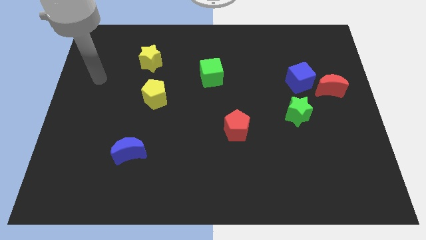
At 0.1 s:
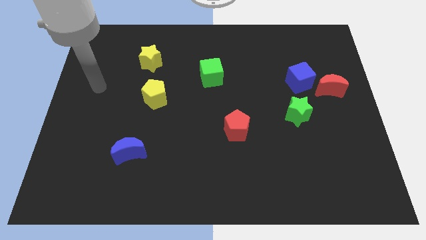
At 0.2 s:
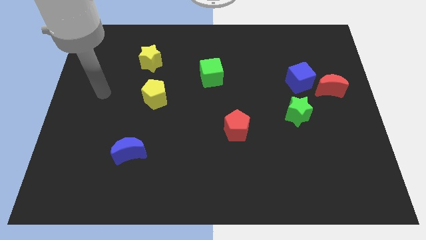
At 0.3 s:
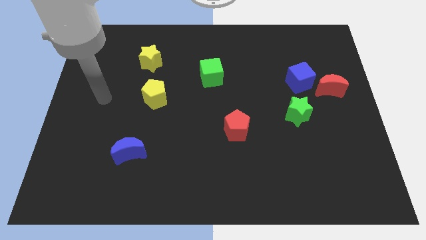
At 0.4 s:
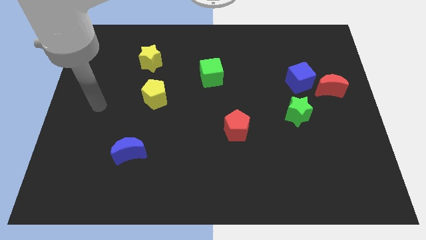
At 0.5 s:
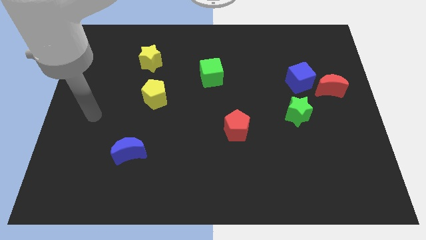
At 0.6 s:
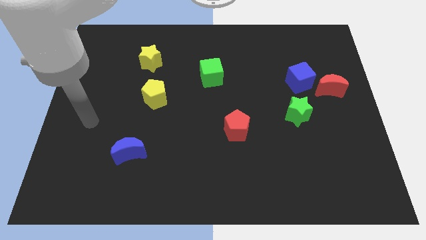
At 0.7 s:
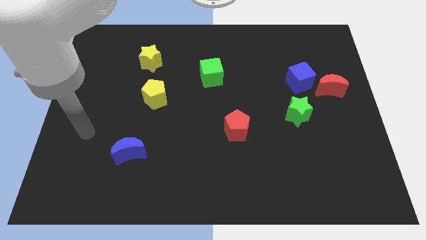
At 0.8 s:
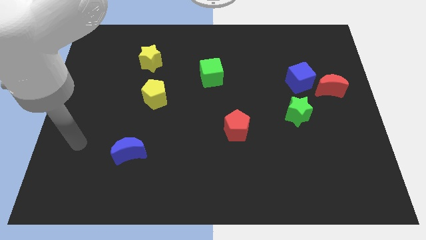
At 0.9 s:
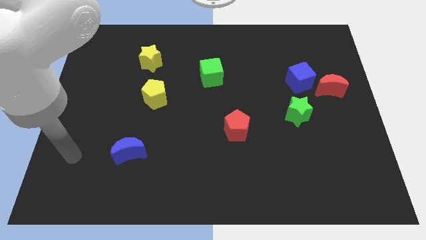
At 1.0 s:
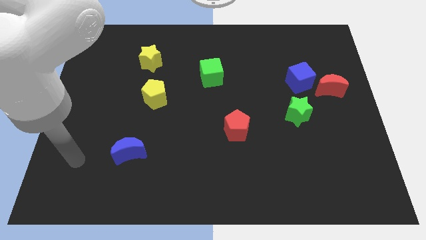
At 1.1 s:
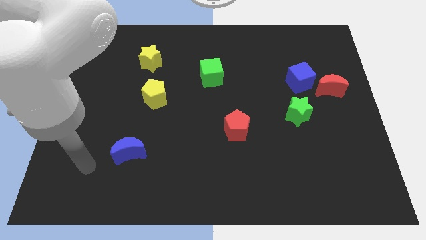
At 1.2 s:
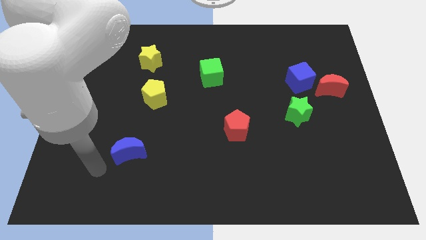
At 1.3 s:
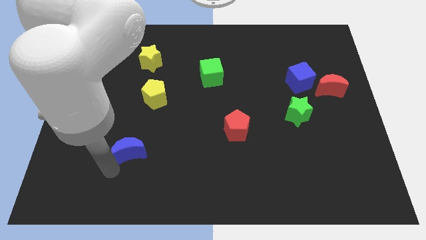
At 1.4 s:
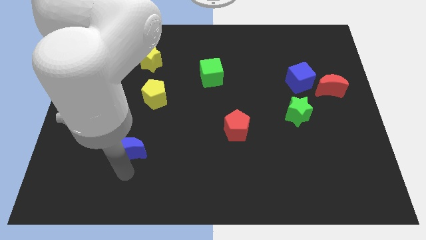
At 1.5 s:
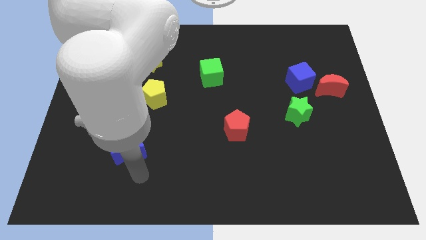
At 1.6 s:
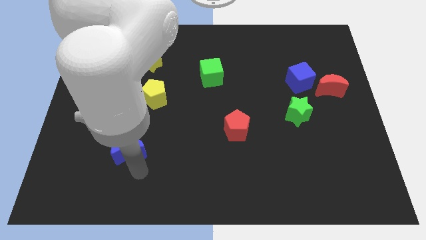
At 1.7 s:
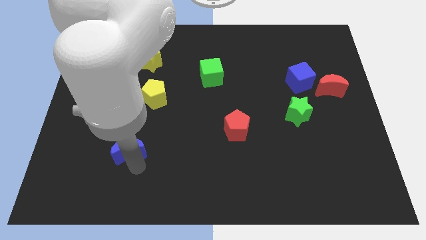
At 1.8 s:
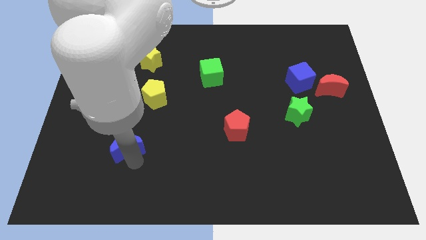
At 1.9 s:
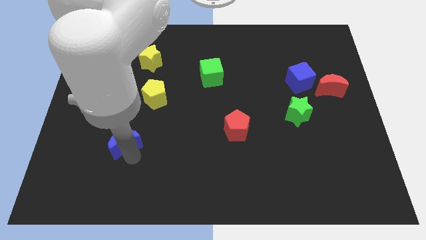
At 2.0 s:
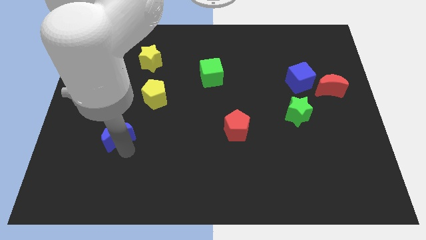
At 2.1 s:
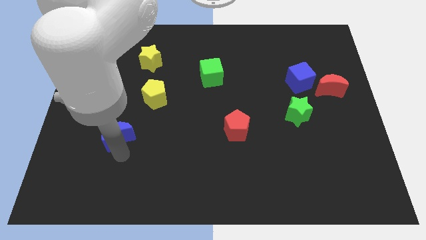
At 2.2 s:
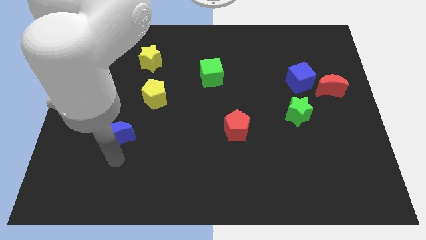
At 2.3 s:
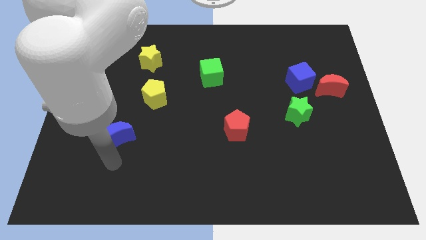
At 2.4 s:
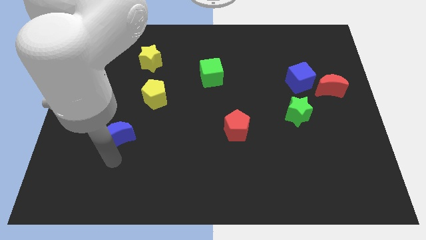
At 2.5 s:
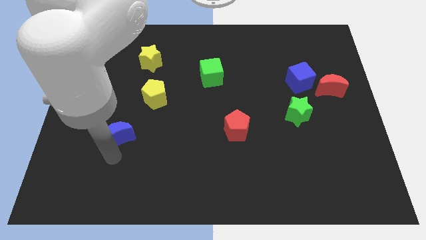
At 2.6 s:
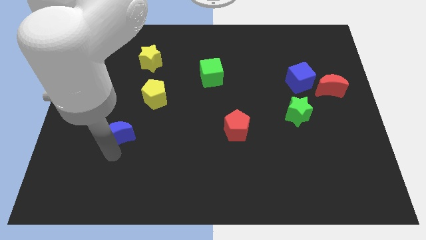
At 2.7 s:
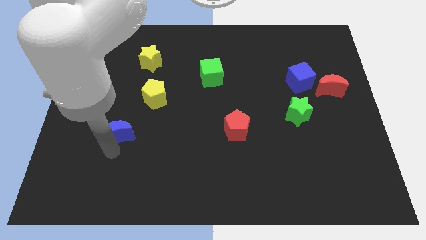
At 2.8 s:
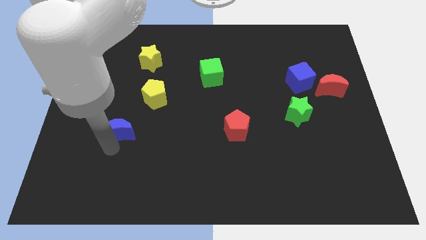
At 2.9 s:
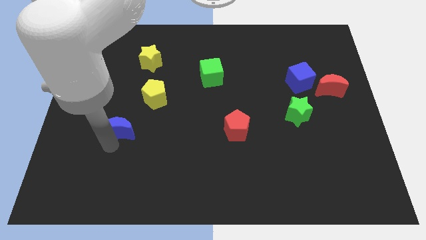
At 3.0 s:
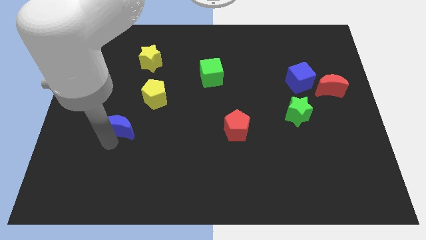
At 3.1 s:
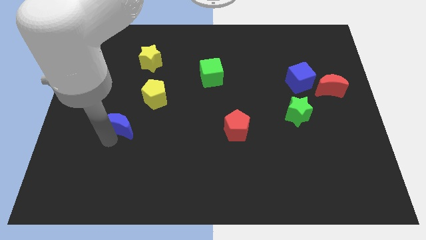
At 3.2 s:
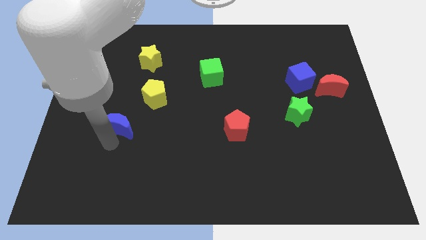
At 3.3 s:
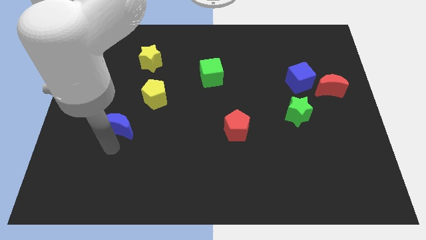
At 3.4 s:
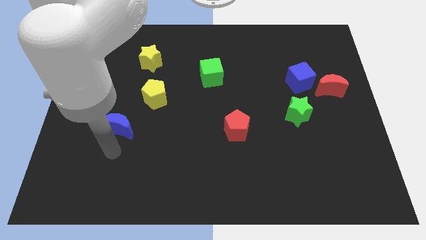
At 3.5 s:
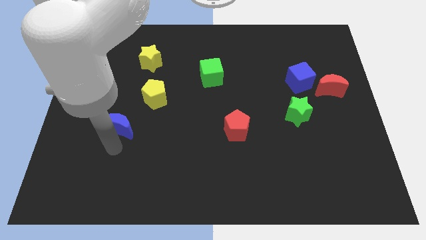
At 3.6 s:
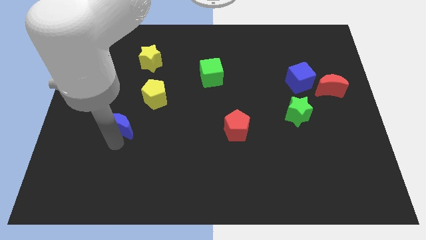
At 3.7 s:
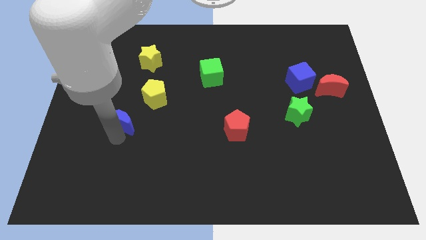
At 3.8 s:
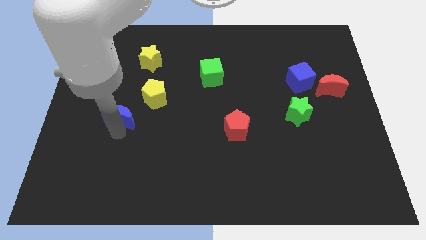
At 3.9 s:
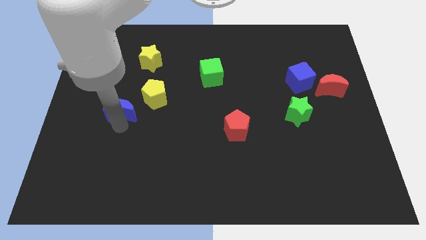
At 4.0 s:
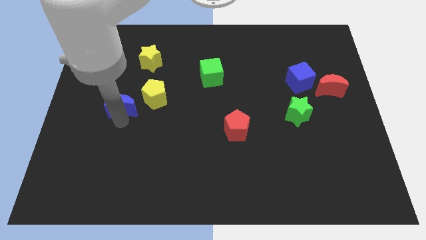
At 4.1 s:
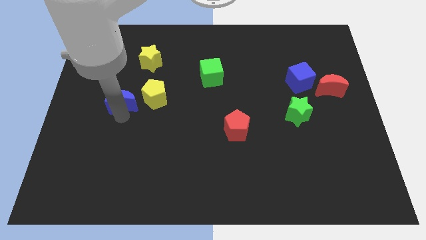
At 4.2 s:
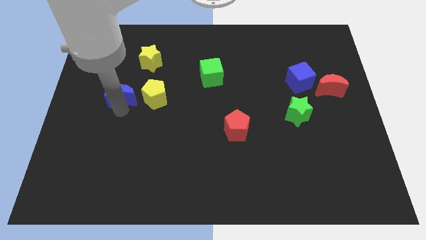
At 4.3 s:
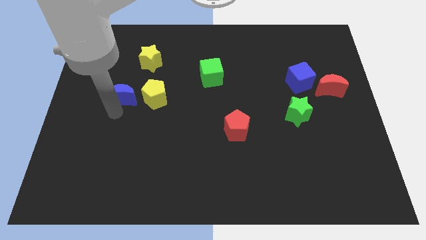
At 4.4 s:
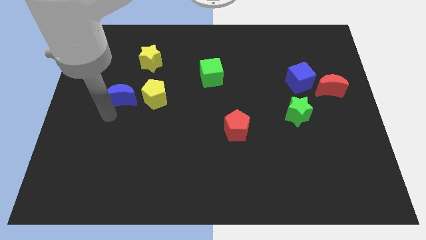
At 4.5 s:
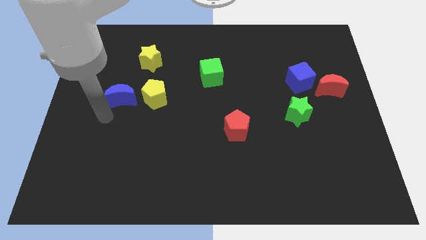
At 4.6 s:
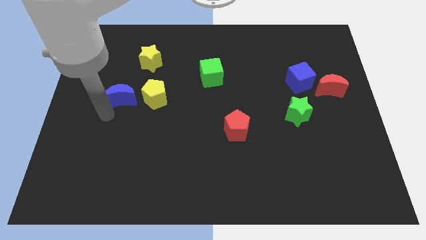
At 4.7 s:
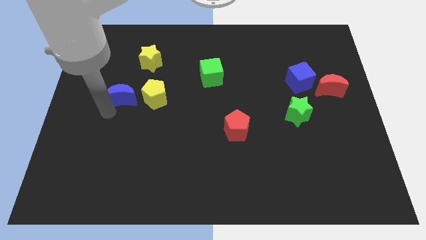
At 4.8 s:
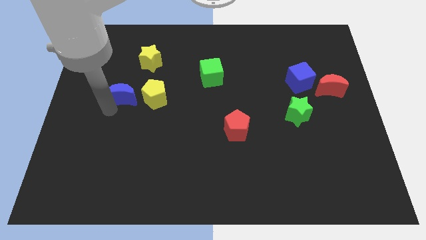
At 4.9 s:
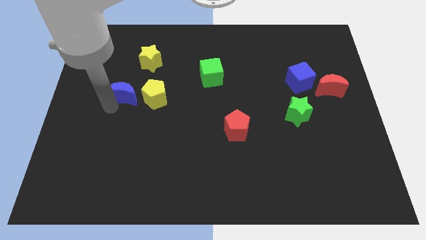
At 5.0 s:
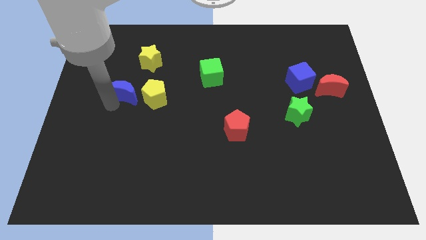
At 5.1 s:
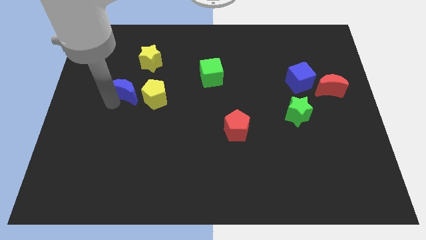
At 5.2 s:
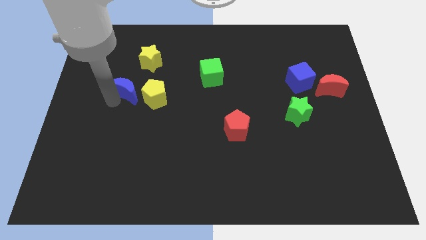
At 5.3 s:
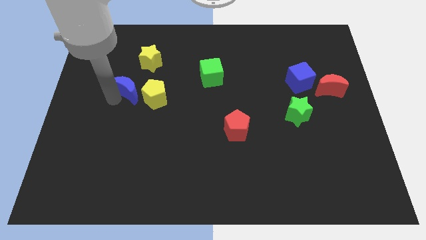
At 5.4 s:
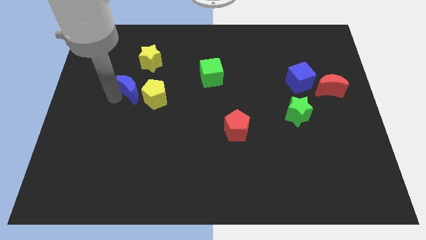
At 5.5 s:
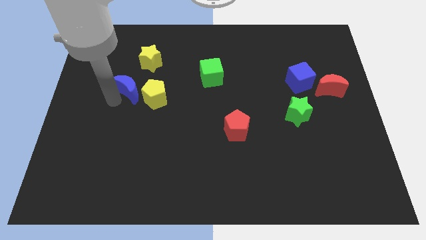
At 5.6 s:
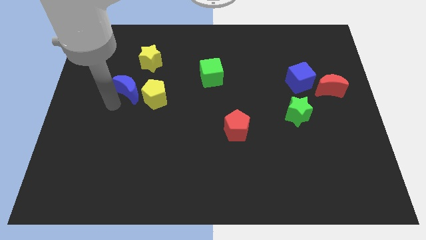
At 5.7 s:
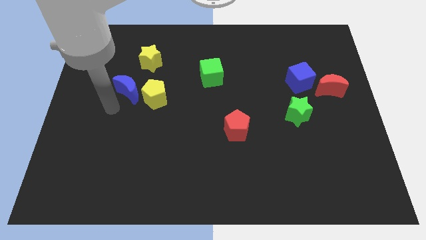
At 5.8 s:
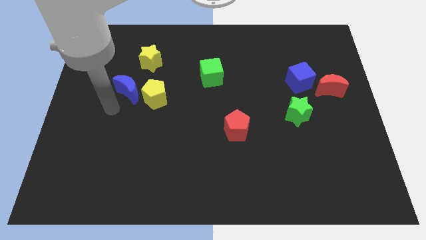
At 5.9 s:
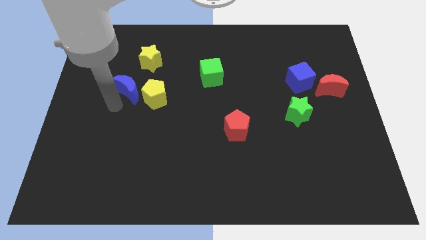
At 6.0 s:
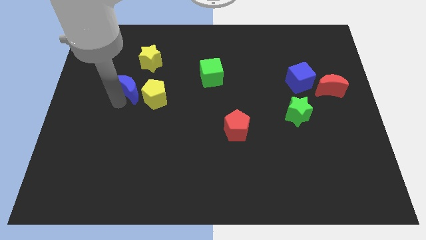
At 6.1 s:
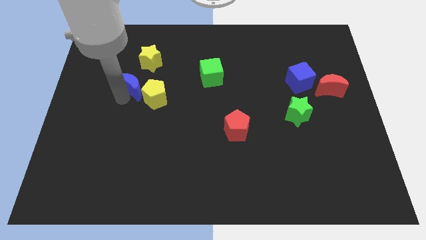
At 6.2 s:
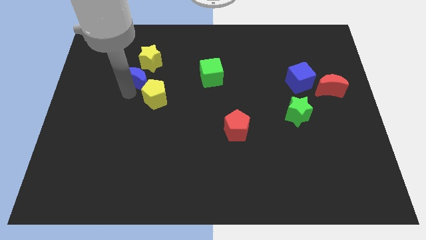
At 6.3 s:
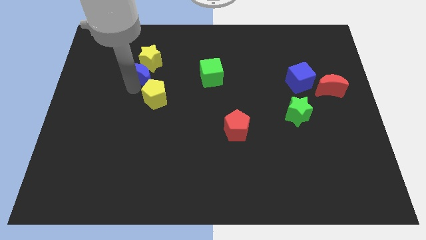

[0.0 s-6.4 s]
put the blue moon next to the yellow star

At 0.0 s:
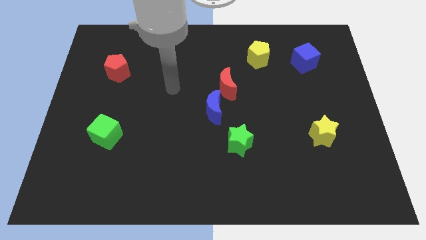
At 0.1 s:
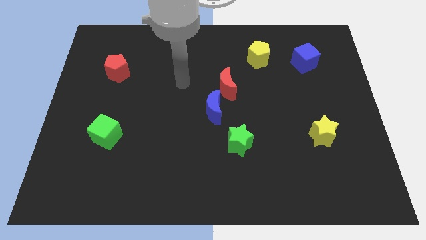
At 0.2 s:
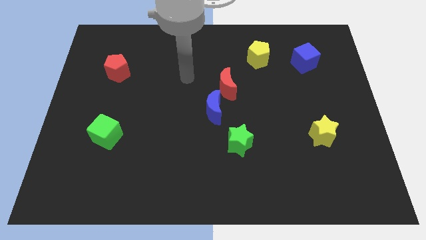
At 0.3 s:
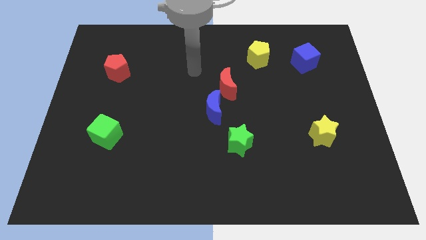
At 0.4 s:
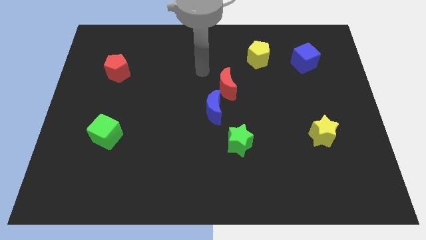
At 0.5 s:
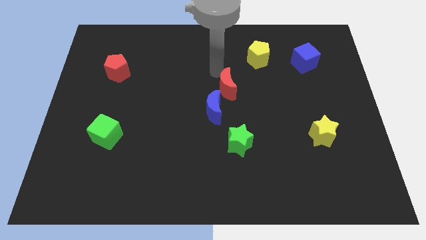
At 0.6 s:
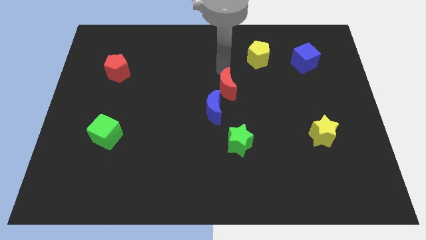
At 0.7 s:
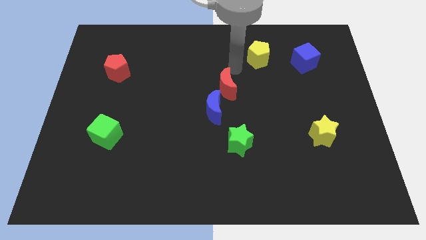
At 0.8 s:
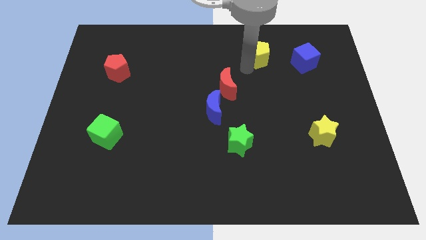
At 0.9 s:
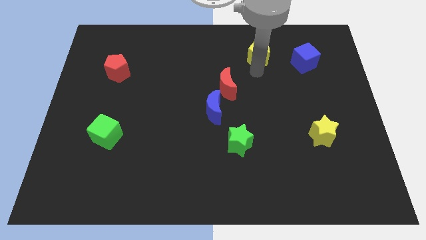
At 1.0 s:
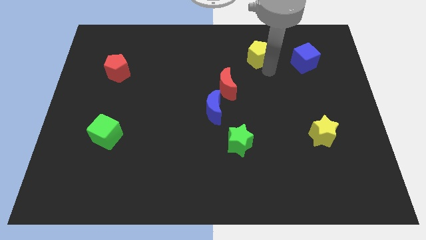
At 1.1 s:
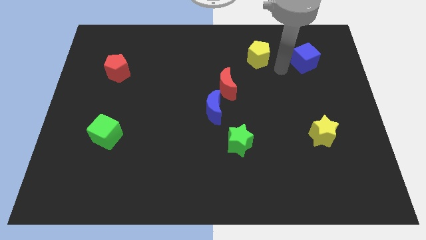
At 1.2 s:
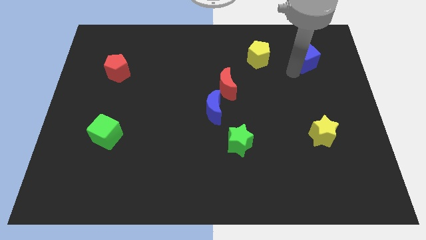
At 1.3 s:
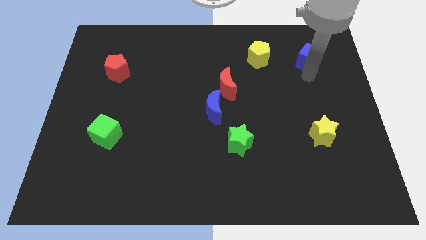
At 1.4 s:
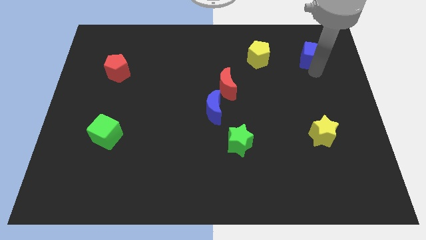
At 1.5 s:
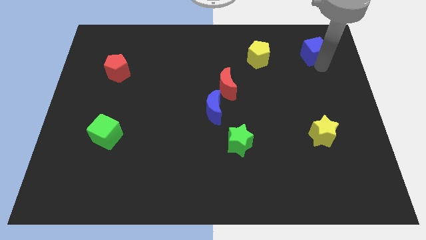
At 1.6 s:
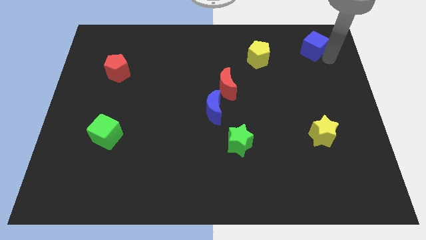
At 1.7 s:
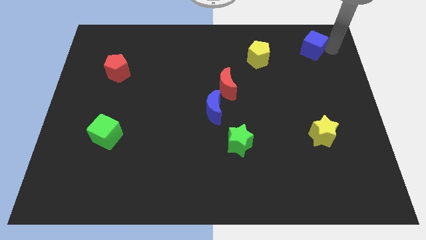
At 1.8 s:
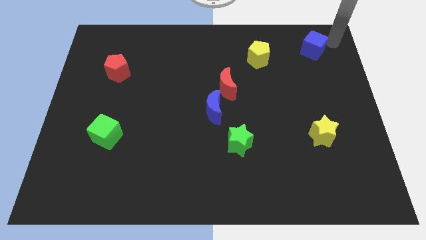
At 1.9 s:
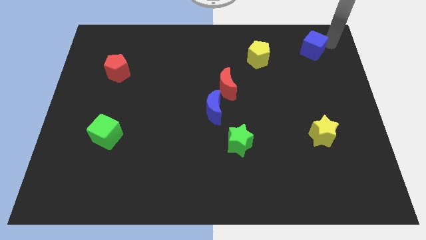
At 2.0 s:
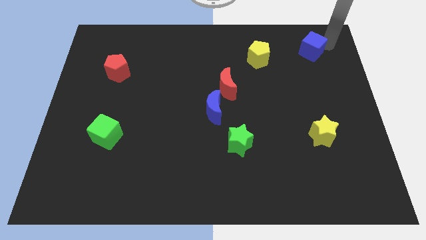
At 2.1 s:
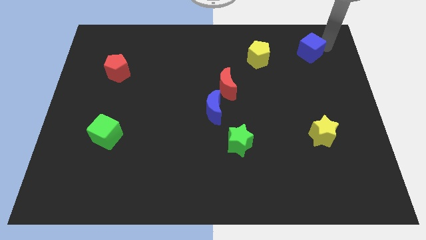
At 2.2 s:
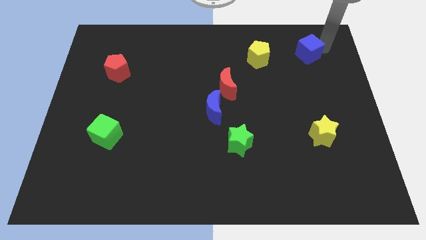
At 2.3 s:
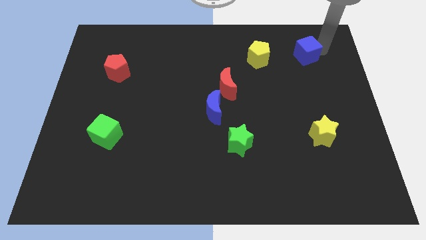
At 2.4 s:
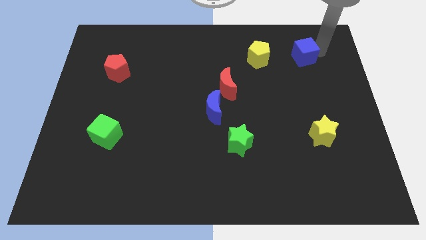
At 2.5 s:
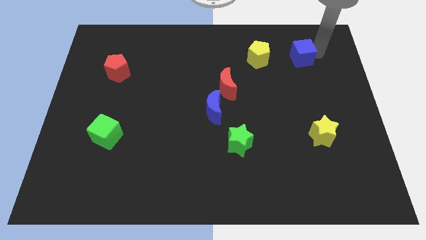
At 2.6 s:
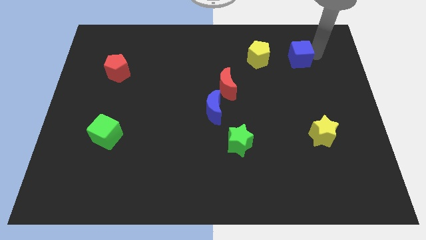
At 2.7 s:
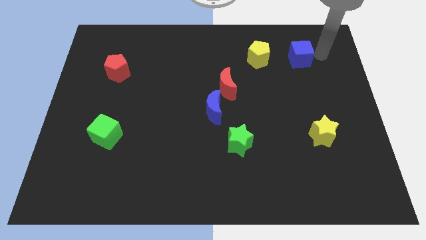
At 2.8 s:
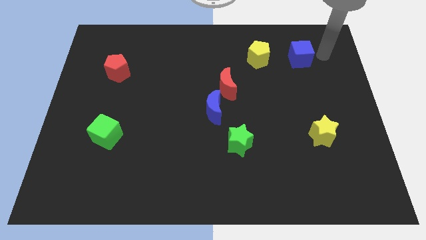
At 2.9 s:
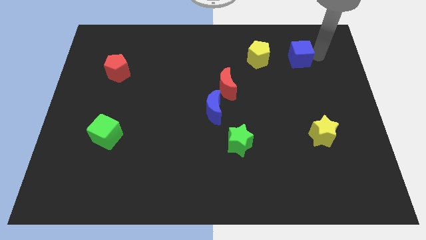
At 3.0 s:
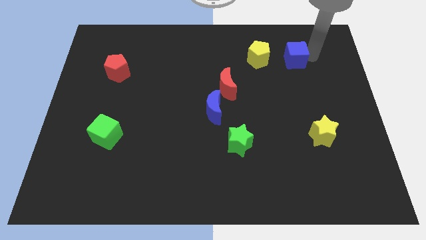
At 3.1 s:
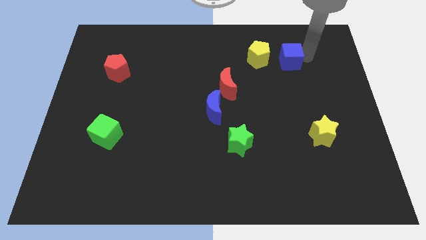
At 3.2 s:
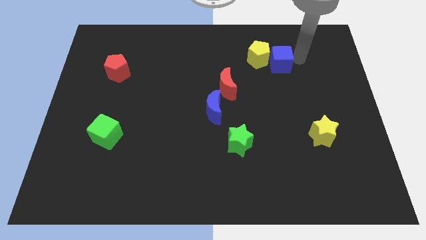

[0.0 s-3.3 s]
put the blue cube next to the yellow pentagon
